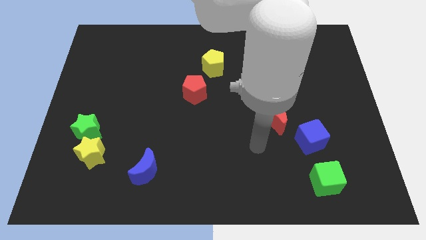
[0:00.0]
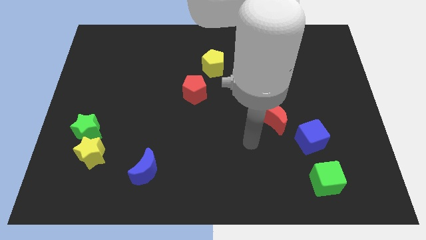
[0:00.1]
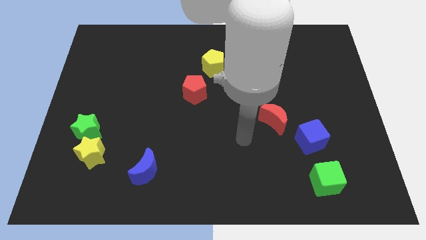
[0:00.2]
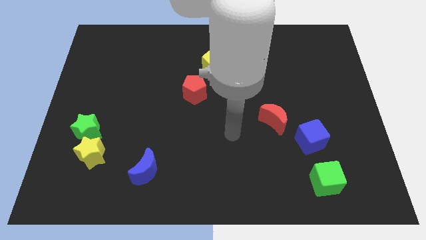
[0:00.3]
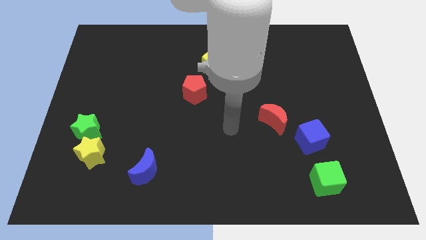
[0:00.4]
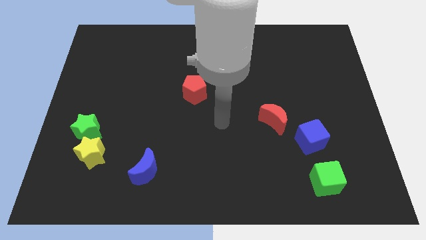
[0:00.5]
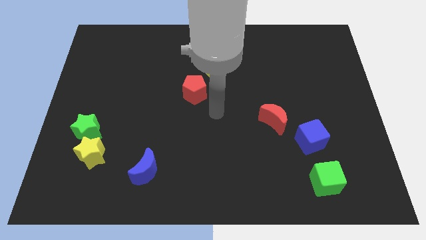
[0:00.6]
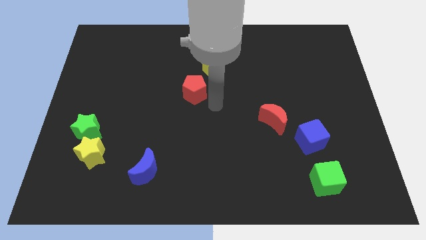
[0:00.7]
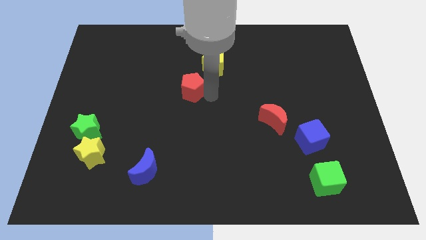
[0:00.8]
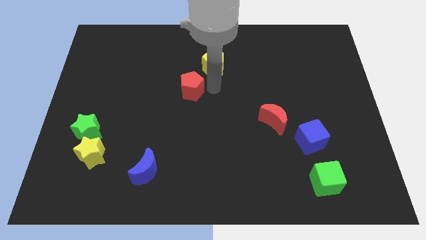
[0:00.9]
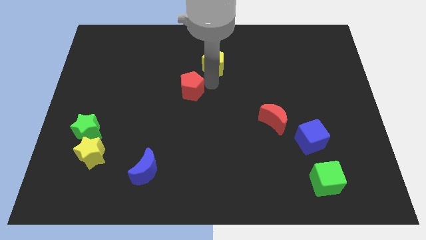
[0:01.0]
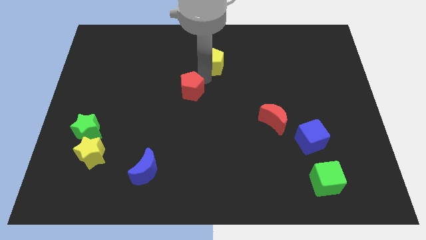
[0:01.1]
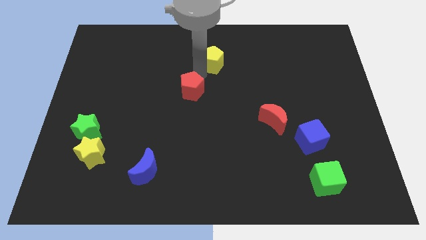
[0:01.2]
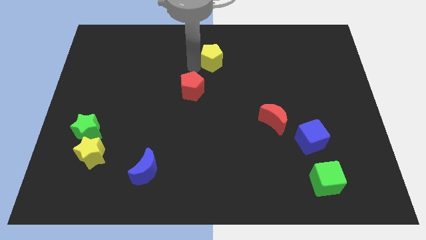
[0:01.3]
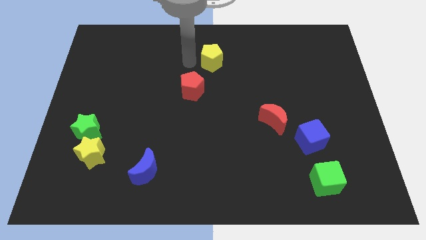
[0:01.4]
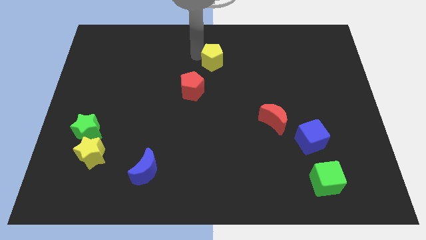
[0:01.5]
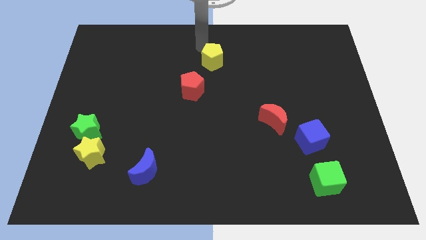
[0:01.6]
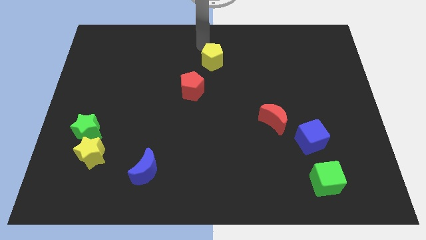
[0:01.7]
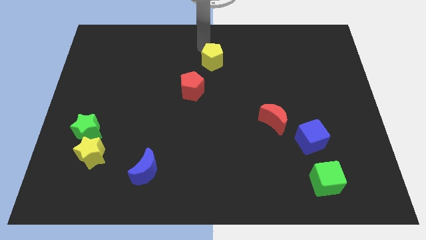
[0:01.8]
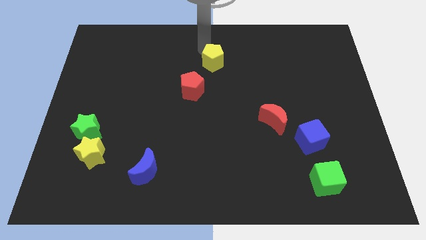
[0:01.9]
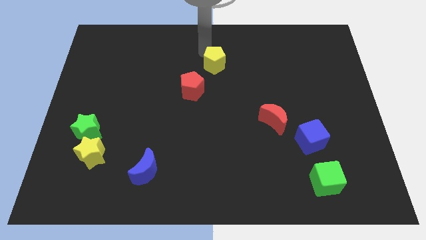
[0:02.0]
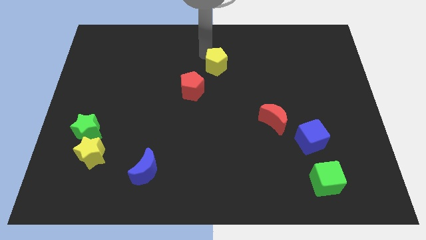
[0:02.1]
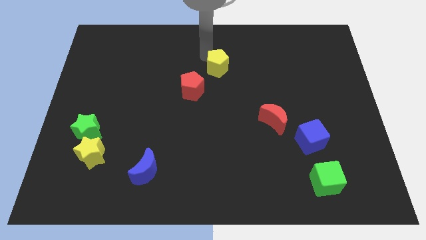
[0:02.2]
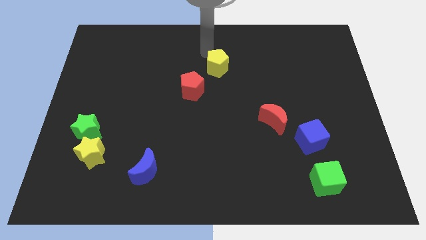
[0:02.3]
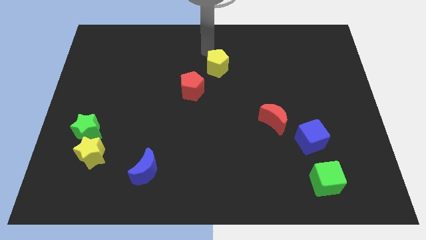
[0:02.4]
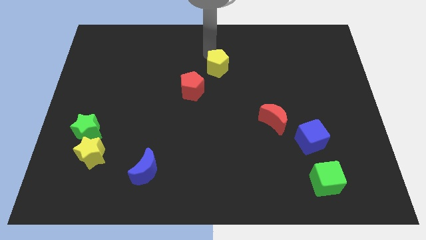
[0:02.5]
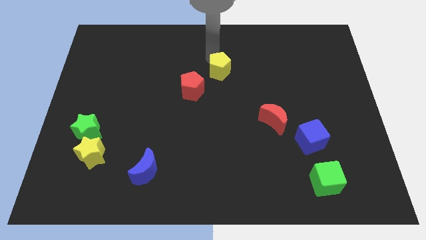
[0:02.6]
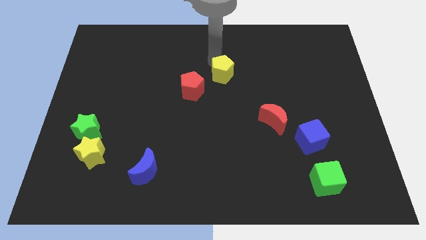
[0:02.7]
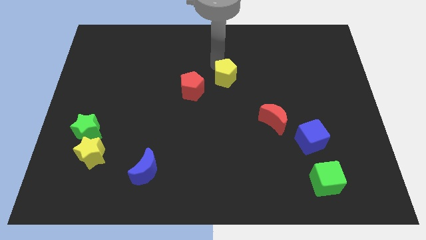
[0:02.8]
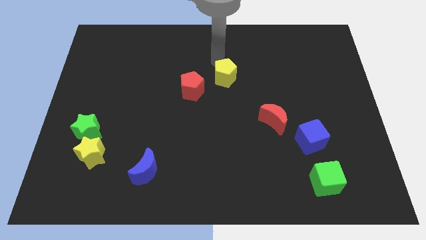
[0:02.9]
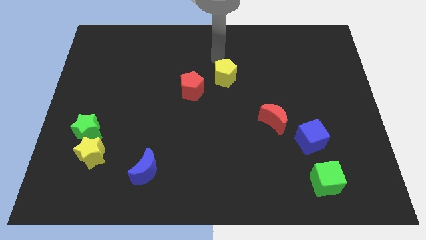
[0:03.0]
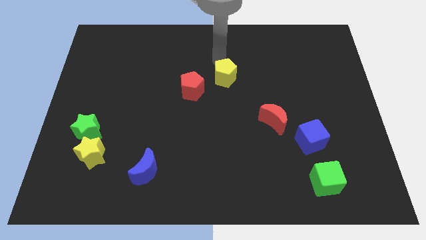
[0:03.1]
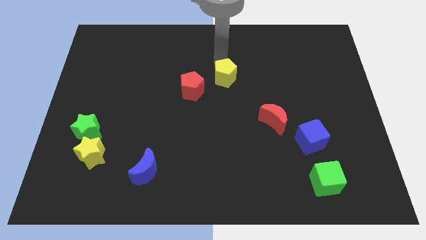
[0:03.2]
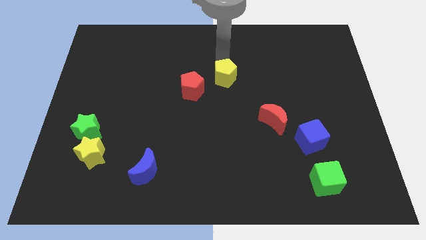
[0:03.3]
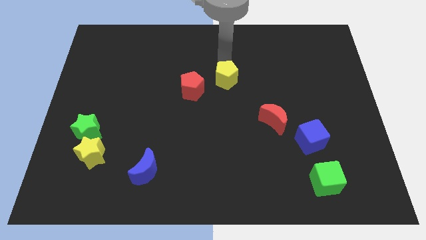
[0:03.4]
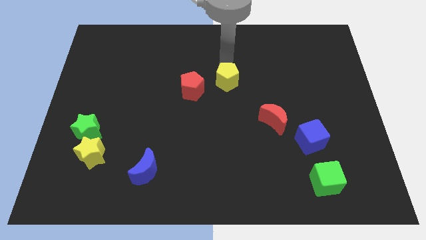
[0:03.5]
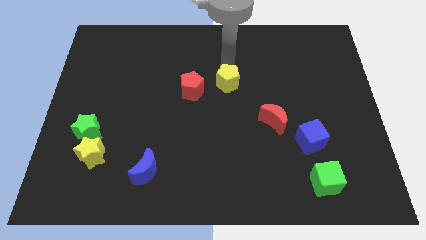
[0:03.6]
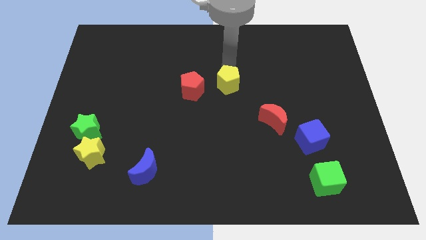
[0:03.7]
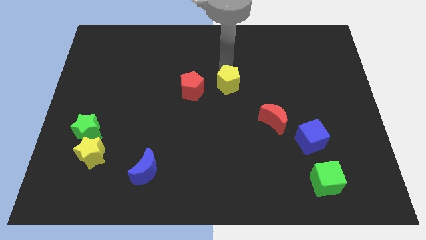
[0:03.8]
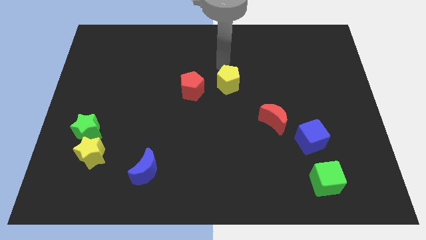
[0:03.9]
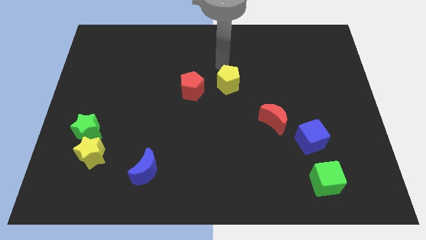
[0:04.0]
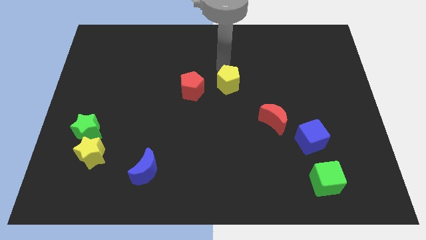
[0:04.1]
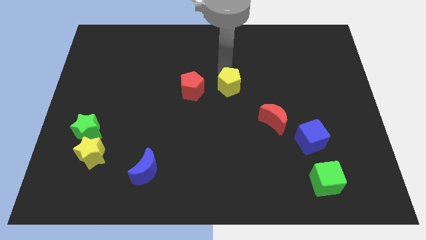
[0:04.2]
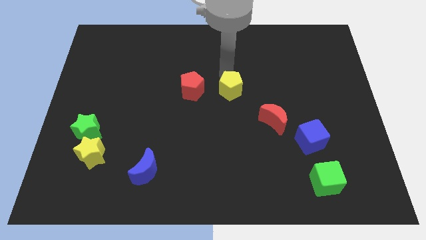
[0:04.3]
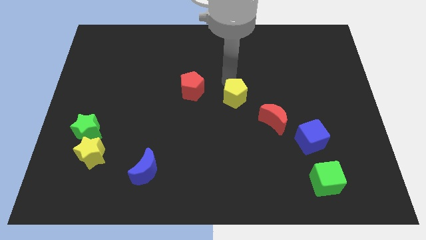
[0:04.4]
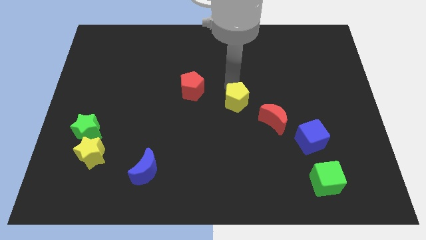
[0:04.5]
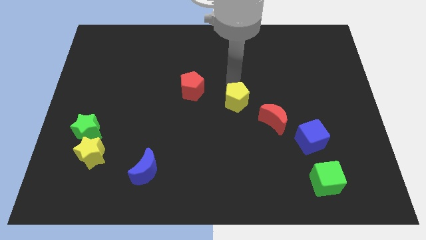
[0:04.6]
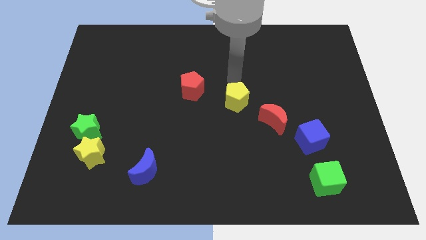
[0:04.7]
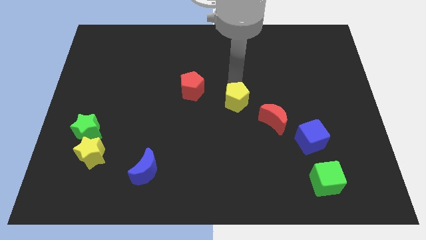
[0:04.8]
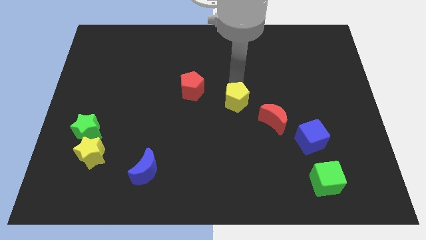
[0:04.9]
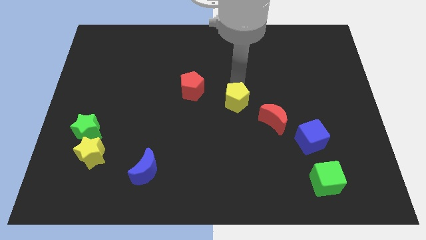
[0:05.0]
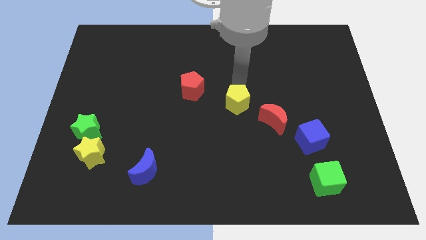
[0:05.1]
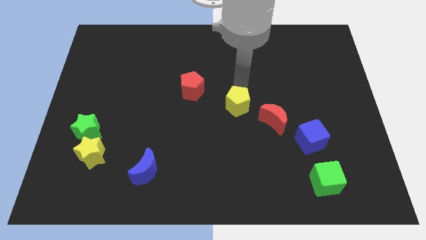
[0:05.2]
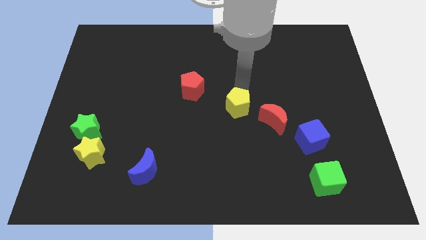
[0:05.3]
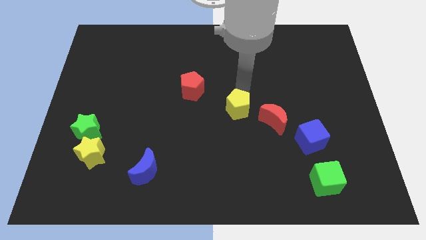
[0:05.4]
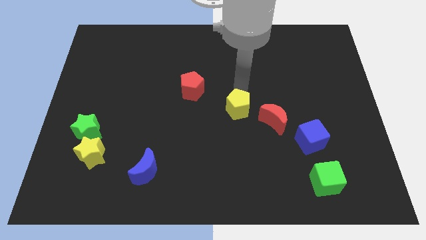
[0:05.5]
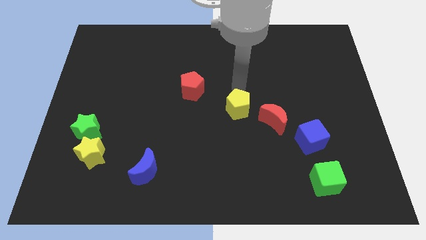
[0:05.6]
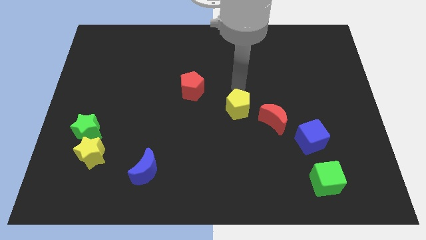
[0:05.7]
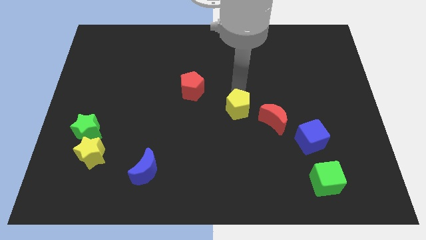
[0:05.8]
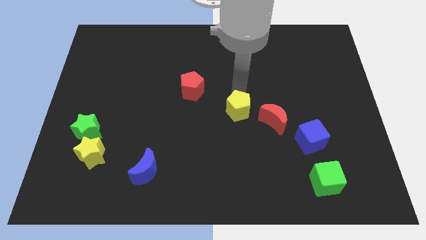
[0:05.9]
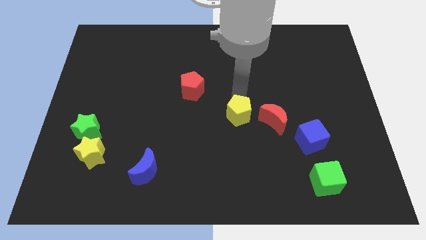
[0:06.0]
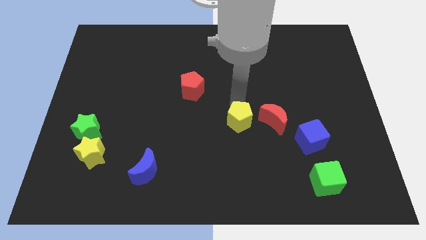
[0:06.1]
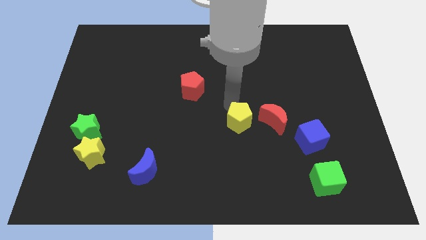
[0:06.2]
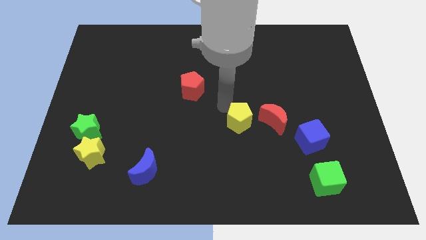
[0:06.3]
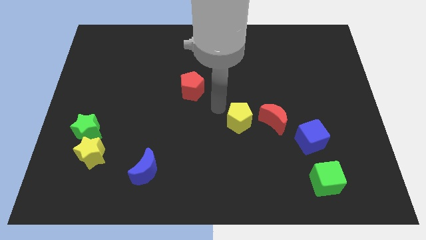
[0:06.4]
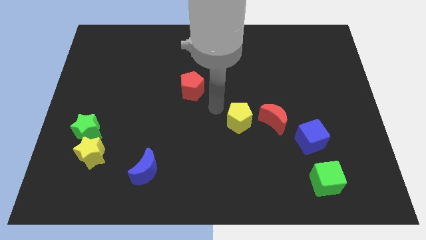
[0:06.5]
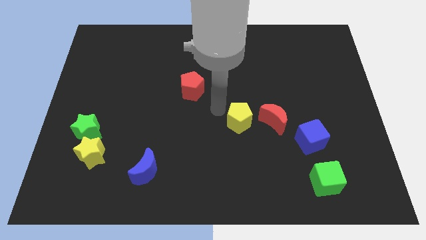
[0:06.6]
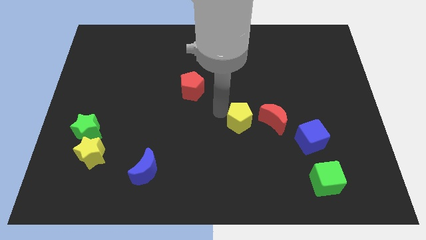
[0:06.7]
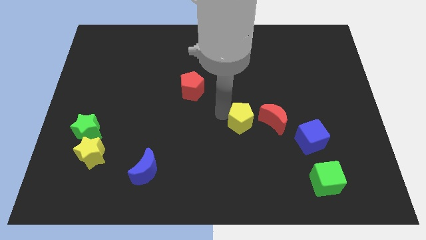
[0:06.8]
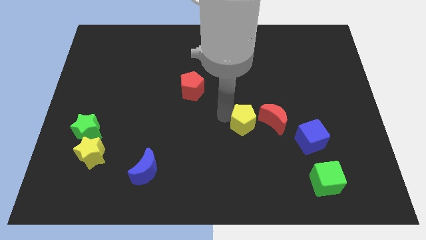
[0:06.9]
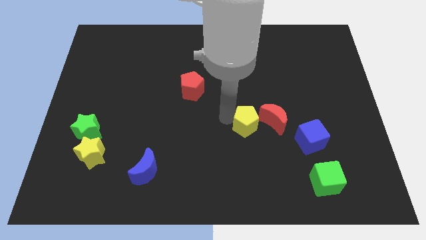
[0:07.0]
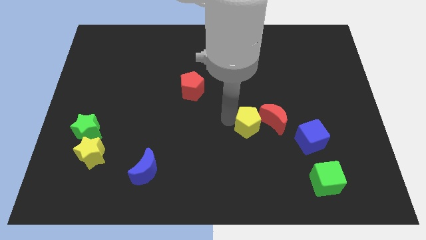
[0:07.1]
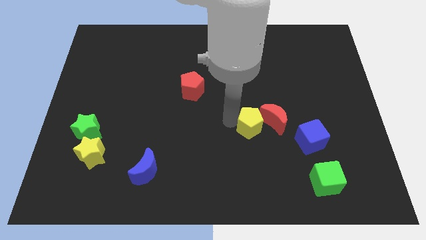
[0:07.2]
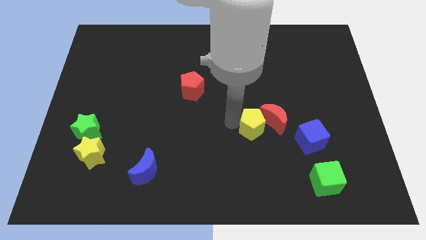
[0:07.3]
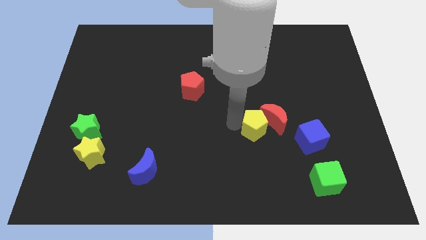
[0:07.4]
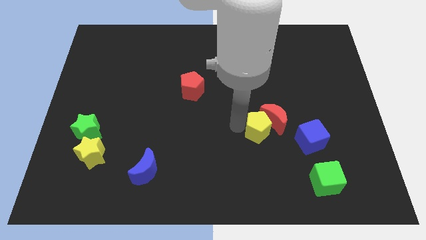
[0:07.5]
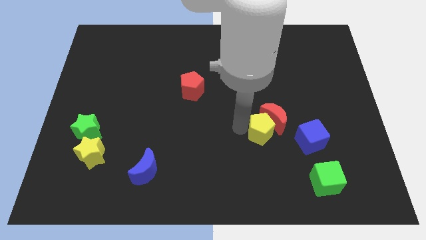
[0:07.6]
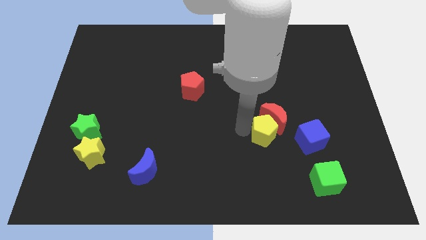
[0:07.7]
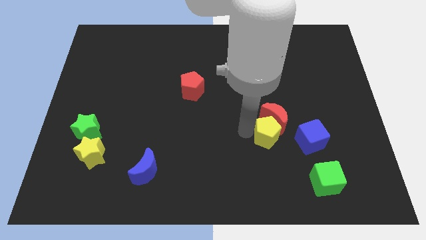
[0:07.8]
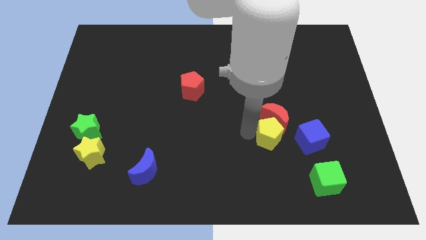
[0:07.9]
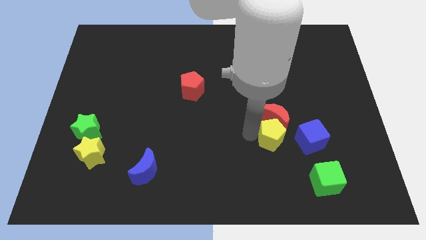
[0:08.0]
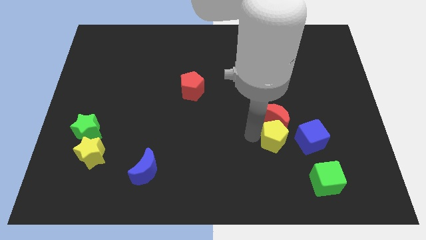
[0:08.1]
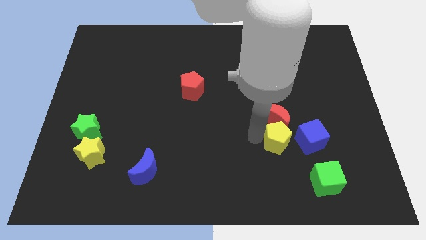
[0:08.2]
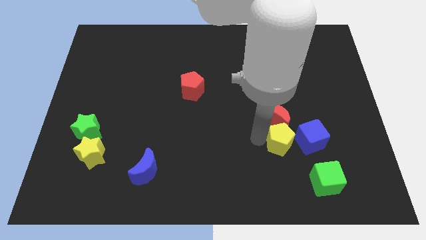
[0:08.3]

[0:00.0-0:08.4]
push the yellow pentagon to the top left of the green cube
